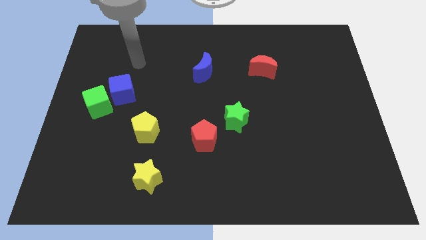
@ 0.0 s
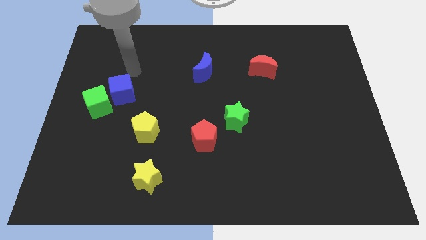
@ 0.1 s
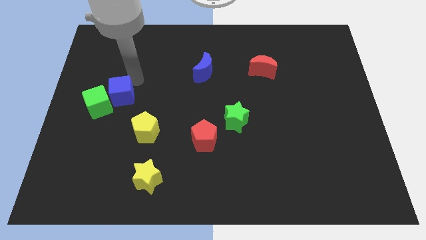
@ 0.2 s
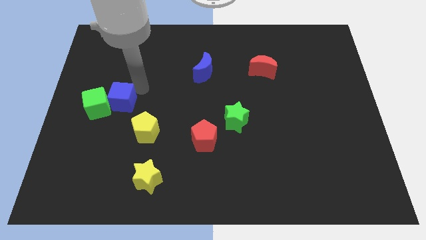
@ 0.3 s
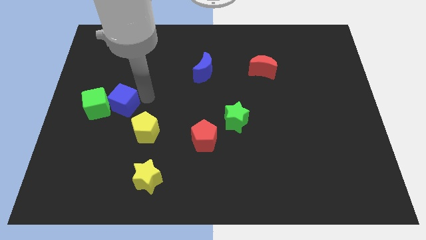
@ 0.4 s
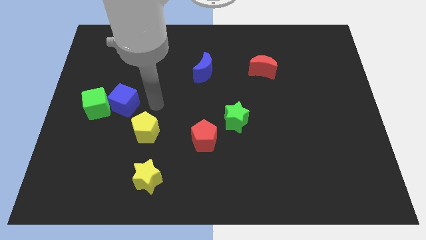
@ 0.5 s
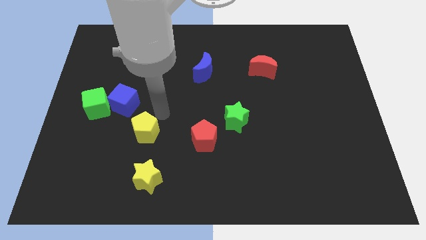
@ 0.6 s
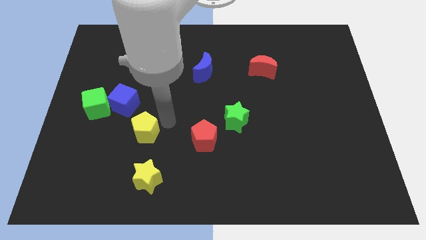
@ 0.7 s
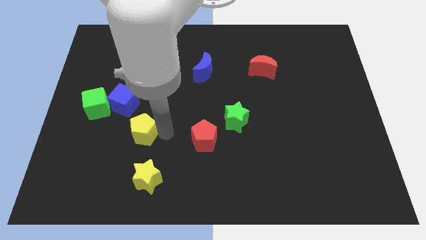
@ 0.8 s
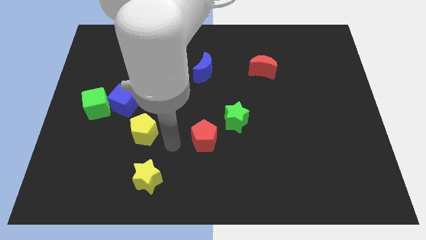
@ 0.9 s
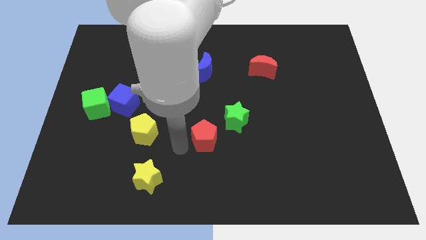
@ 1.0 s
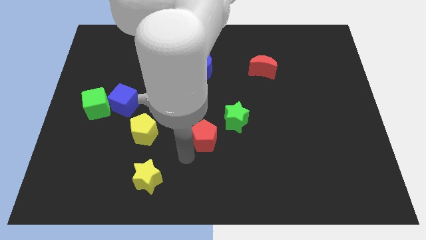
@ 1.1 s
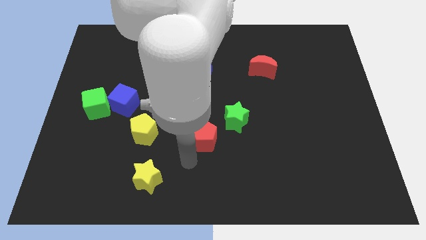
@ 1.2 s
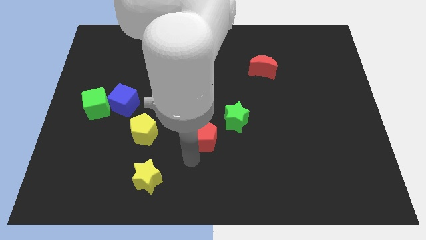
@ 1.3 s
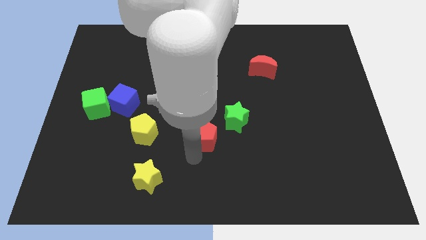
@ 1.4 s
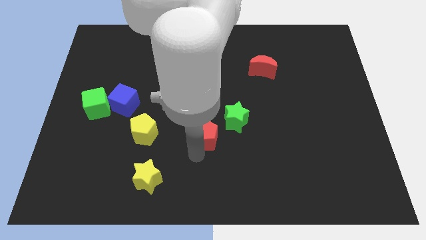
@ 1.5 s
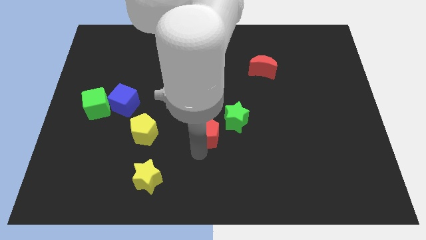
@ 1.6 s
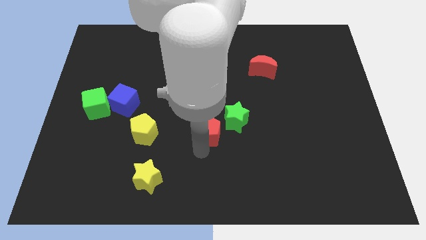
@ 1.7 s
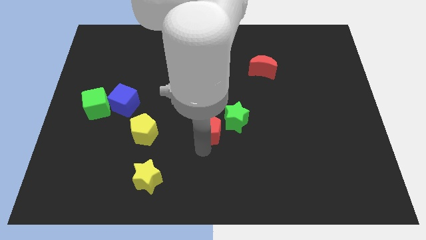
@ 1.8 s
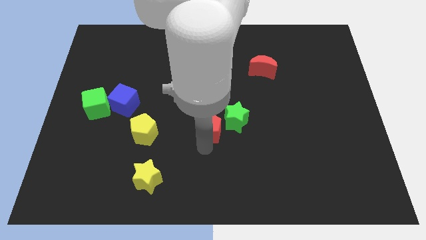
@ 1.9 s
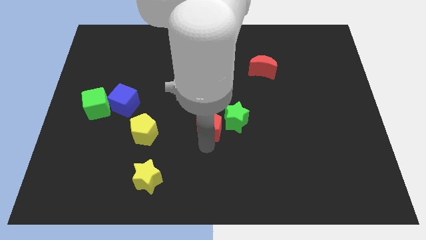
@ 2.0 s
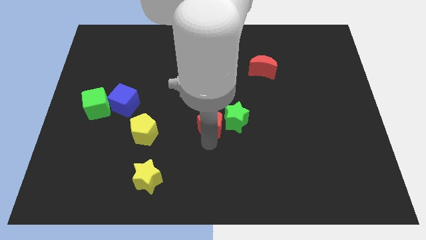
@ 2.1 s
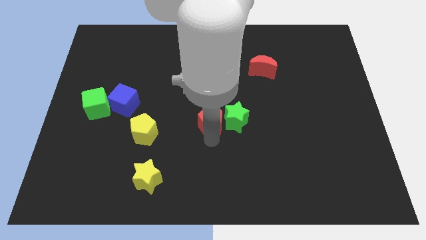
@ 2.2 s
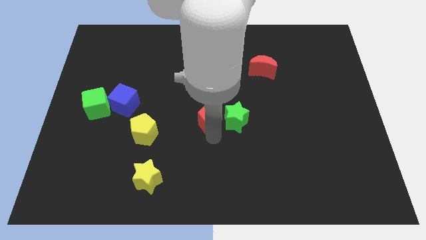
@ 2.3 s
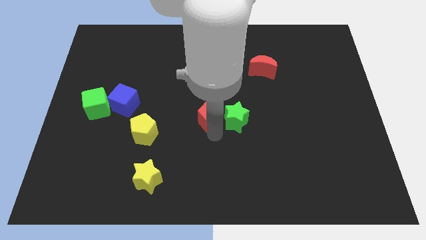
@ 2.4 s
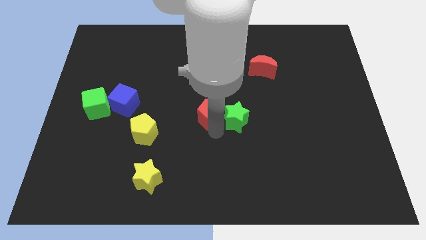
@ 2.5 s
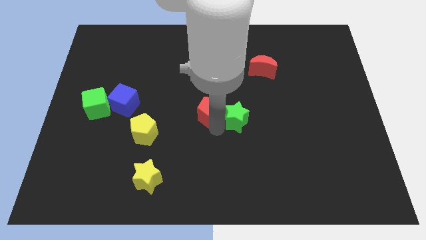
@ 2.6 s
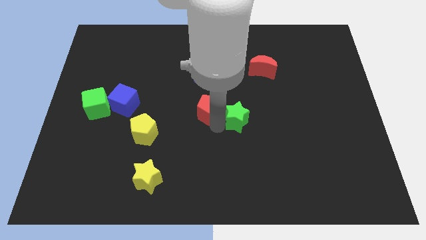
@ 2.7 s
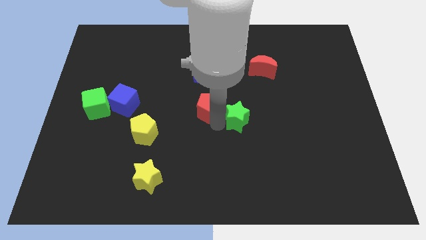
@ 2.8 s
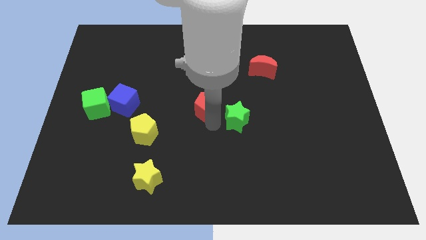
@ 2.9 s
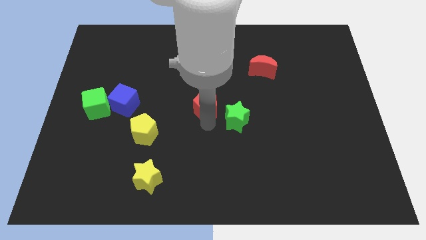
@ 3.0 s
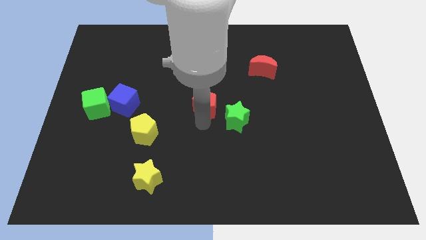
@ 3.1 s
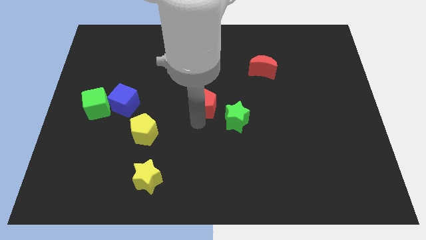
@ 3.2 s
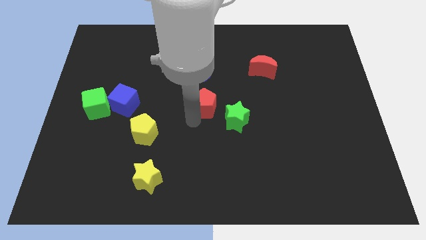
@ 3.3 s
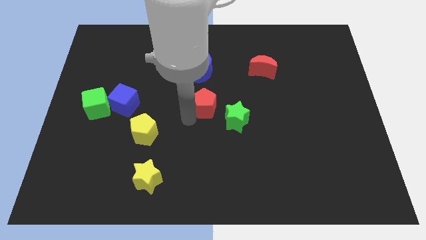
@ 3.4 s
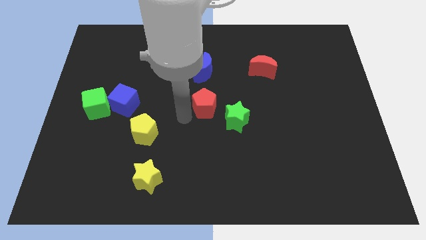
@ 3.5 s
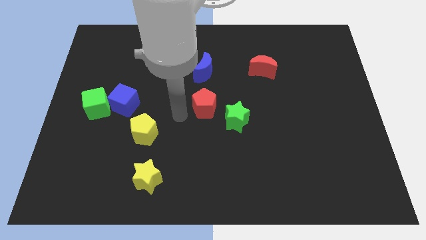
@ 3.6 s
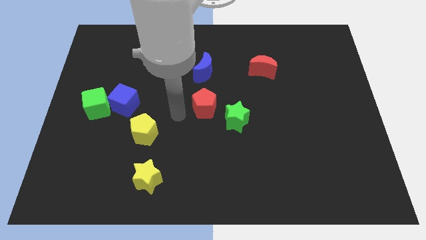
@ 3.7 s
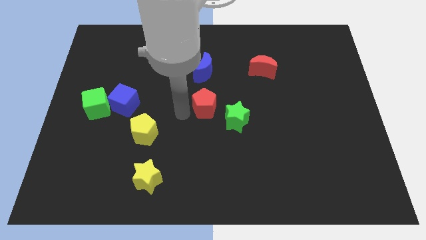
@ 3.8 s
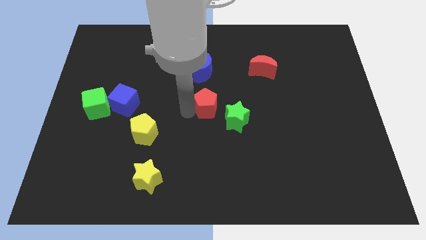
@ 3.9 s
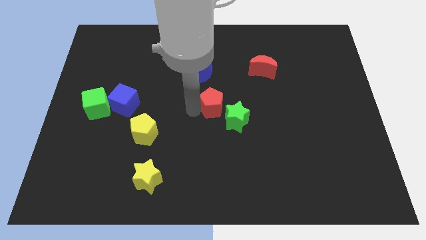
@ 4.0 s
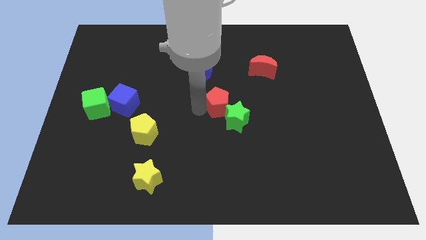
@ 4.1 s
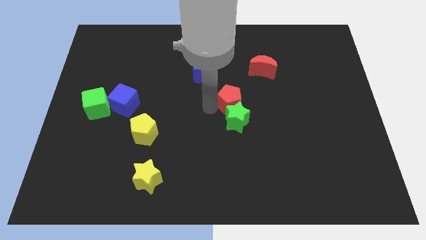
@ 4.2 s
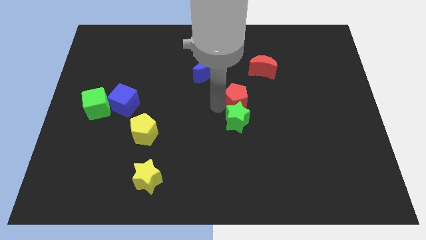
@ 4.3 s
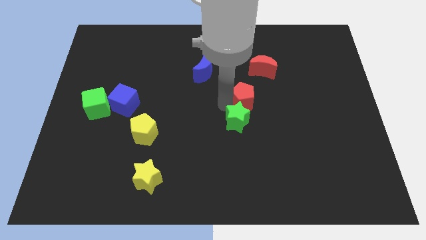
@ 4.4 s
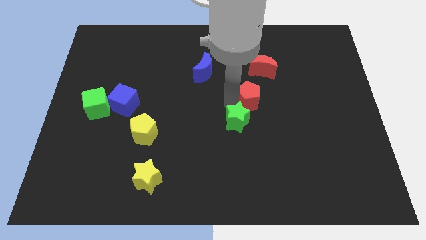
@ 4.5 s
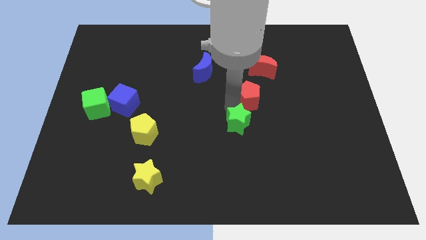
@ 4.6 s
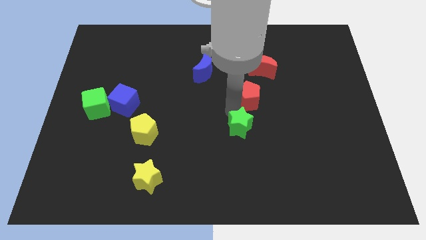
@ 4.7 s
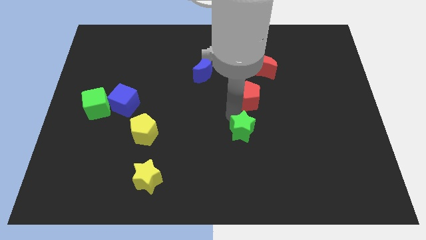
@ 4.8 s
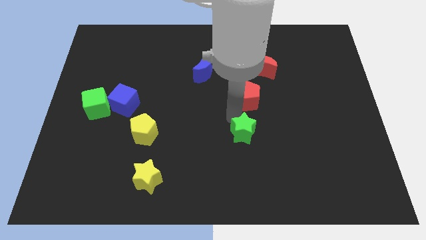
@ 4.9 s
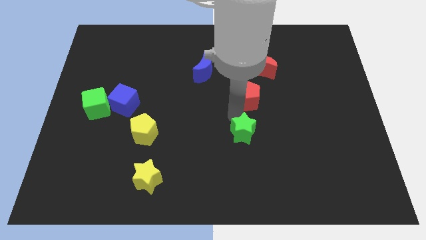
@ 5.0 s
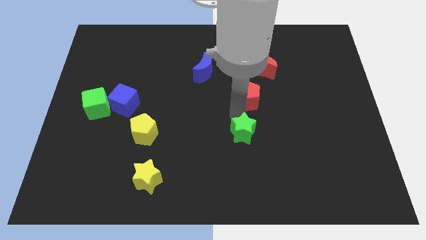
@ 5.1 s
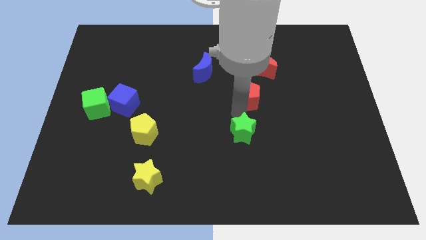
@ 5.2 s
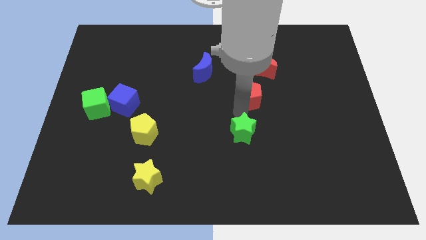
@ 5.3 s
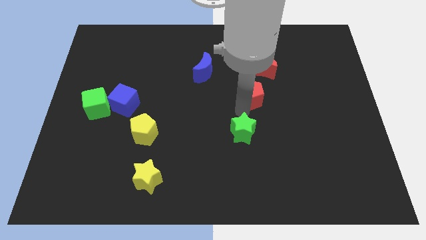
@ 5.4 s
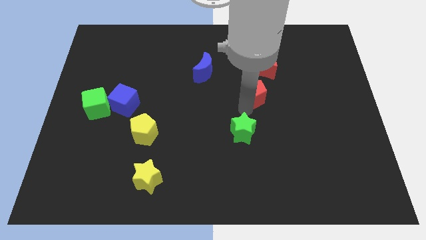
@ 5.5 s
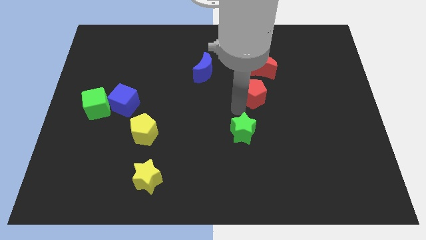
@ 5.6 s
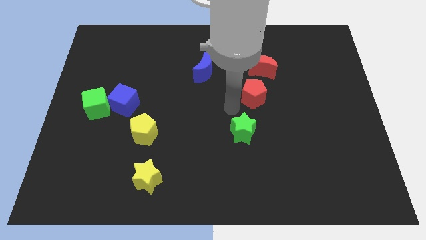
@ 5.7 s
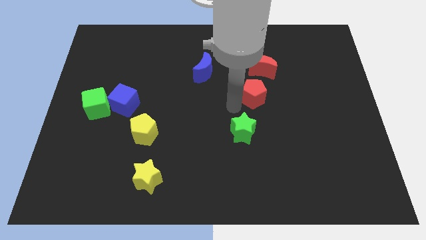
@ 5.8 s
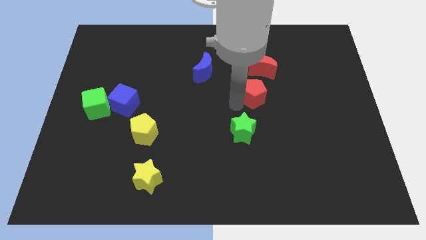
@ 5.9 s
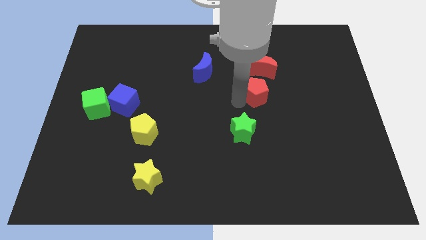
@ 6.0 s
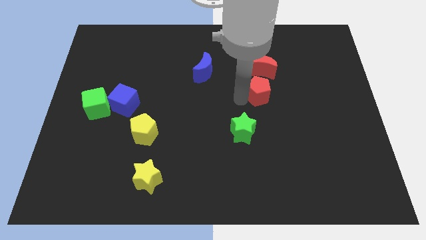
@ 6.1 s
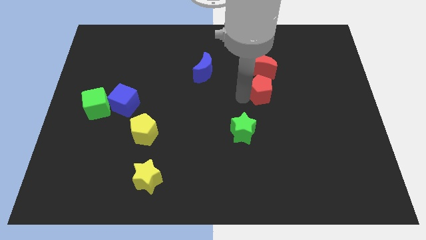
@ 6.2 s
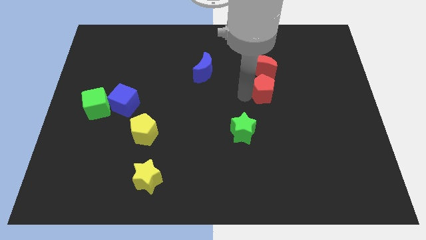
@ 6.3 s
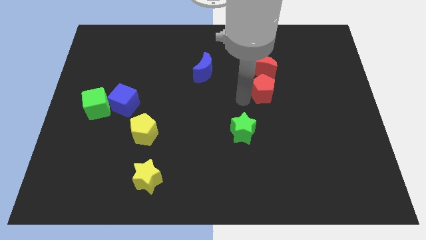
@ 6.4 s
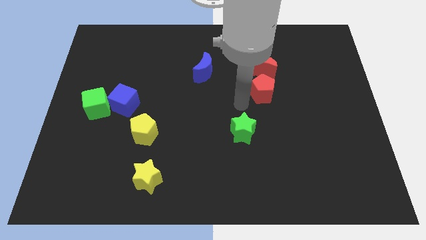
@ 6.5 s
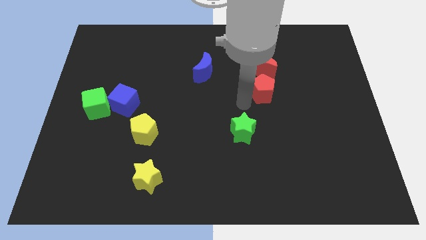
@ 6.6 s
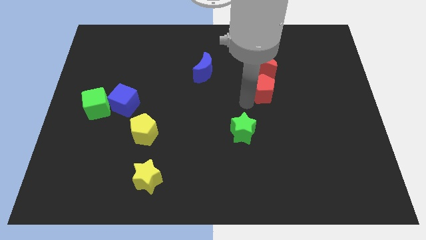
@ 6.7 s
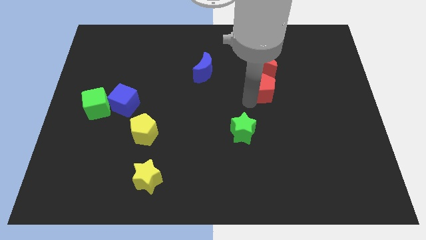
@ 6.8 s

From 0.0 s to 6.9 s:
move the red pentagon upwards and to the right diagonally

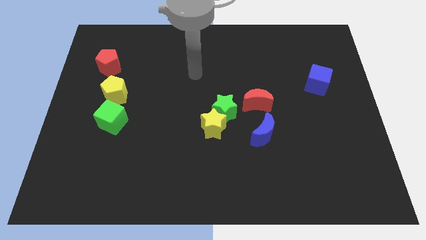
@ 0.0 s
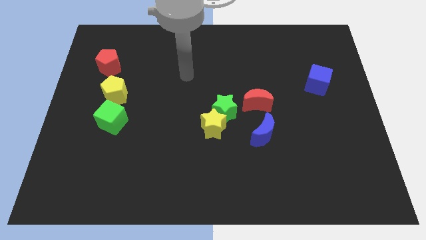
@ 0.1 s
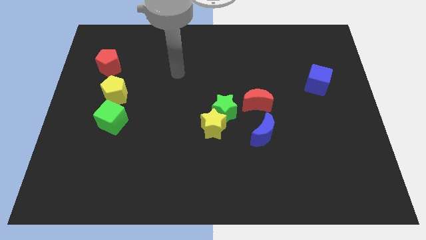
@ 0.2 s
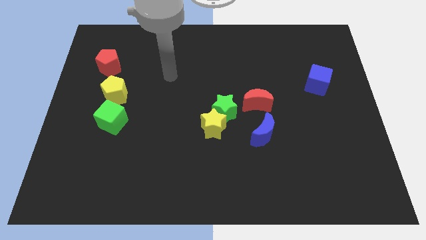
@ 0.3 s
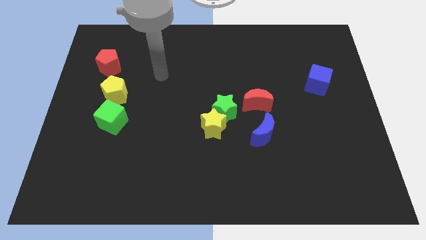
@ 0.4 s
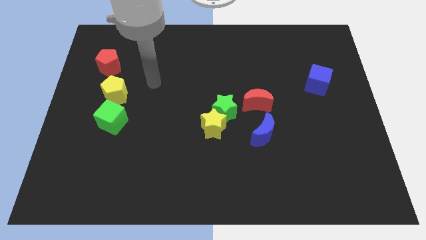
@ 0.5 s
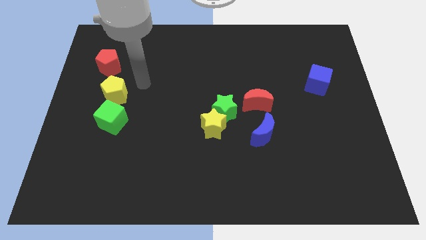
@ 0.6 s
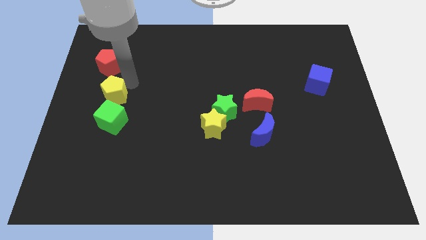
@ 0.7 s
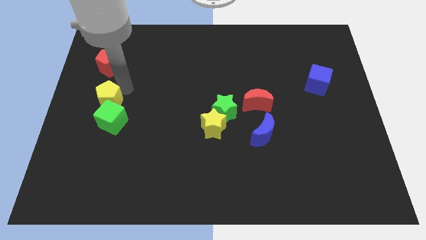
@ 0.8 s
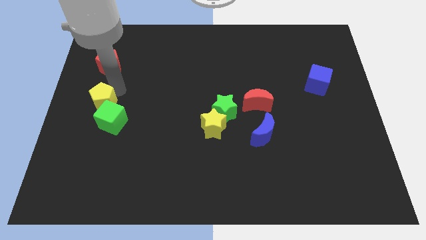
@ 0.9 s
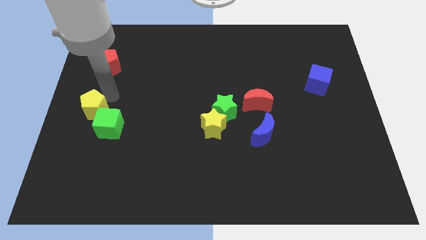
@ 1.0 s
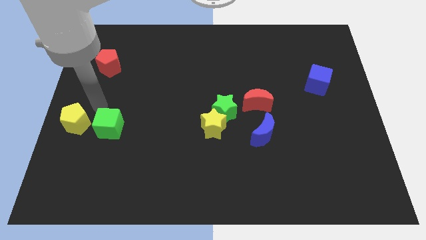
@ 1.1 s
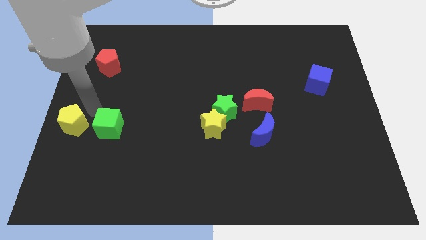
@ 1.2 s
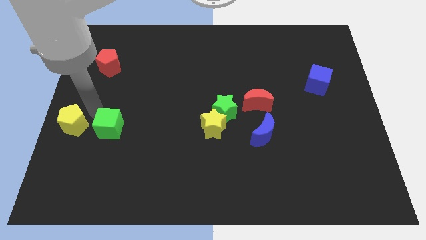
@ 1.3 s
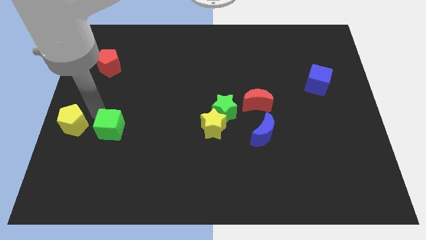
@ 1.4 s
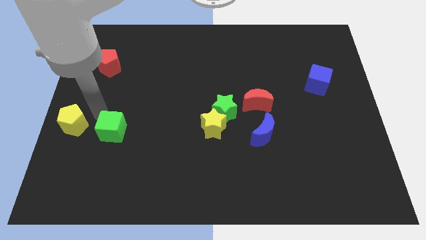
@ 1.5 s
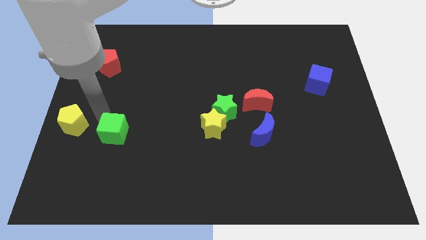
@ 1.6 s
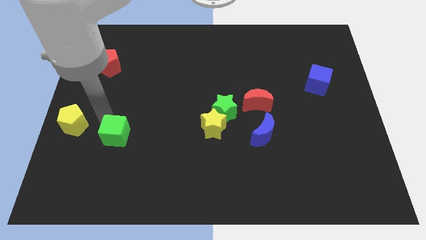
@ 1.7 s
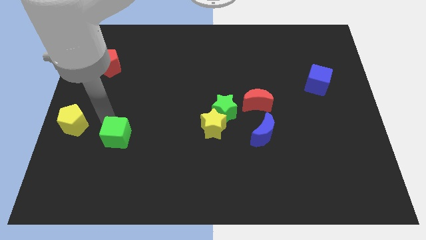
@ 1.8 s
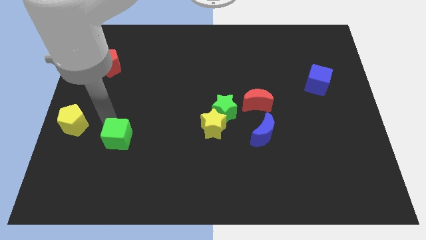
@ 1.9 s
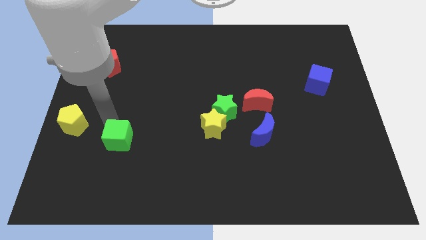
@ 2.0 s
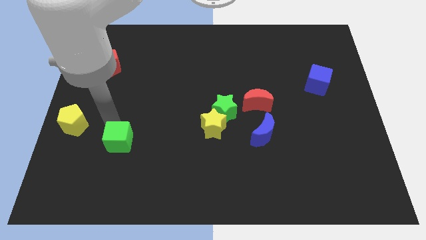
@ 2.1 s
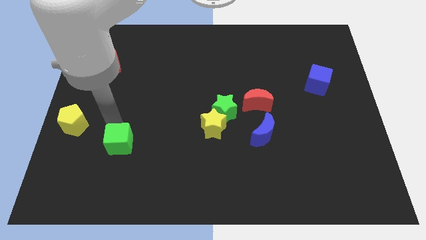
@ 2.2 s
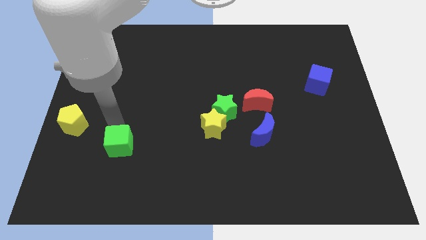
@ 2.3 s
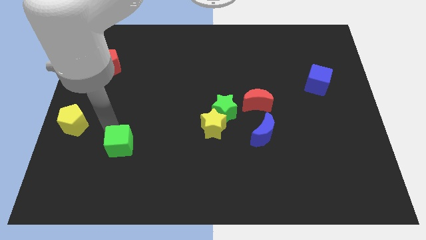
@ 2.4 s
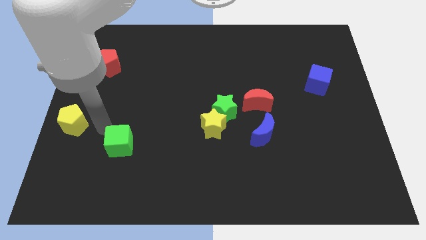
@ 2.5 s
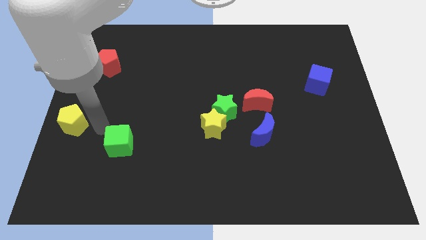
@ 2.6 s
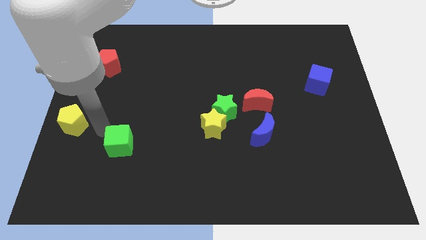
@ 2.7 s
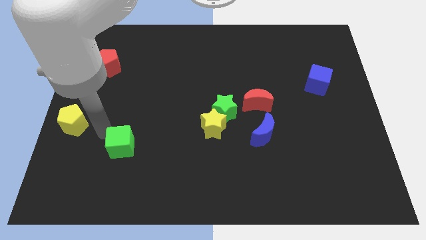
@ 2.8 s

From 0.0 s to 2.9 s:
slide the green cube down and right diagonally somewhat
